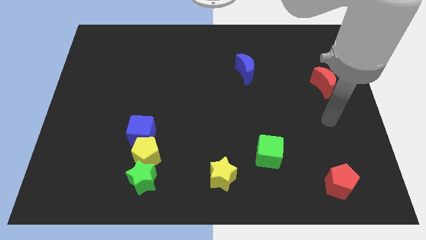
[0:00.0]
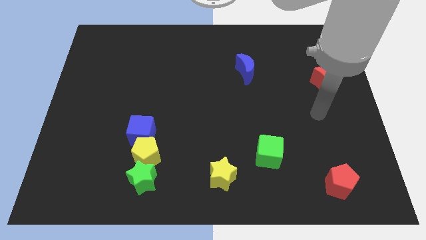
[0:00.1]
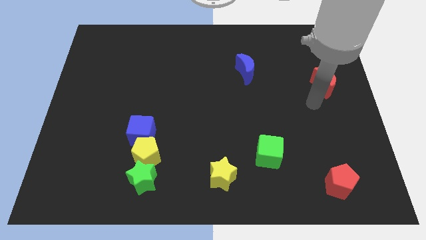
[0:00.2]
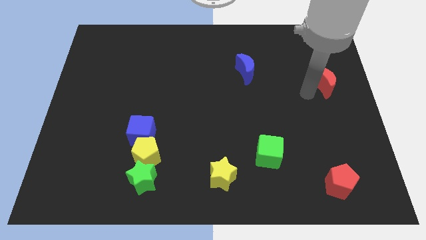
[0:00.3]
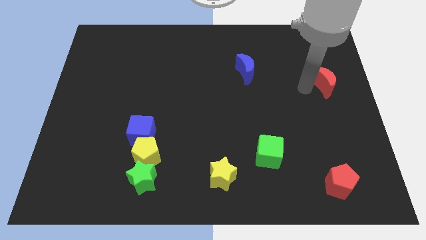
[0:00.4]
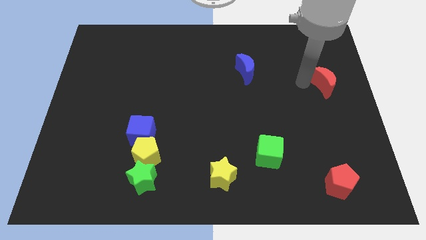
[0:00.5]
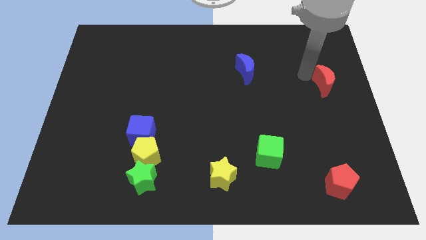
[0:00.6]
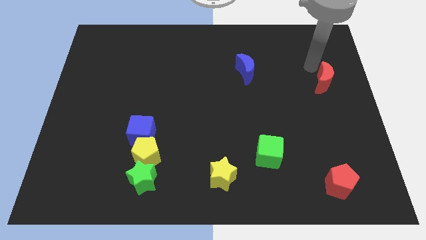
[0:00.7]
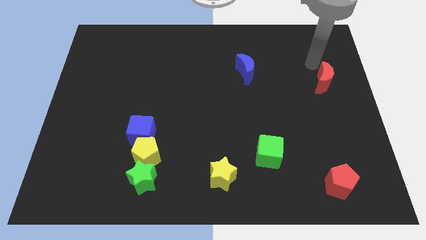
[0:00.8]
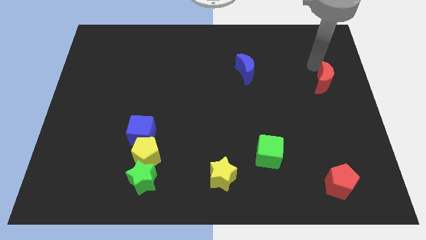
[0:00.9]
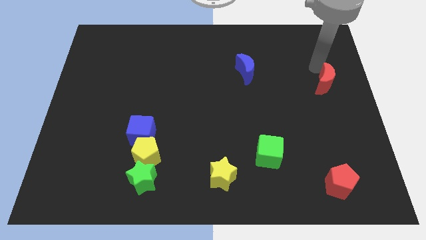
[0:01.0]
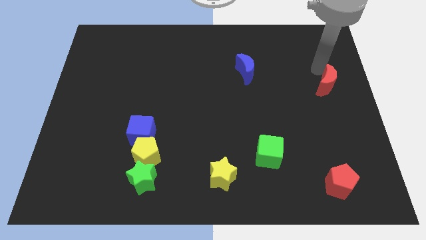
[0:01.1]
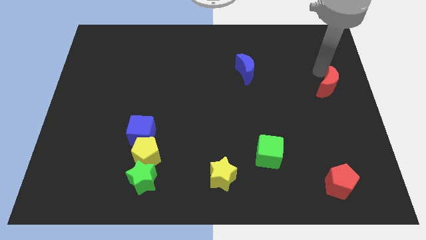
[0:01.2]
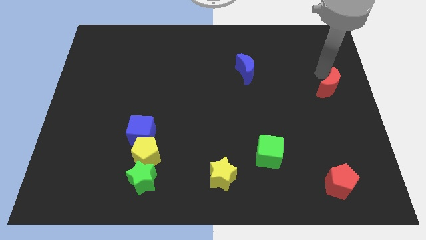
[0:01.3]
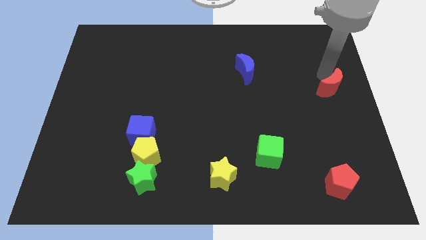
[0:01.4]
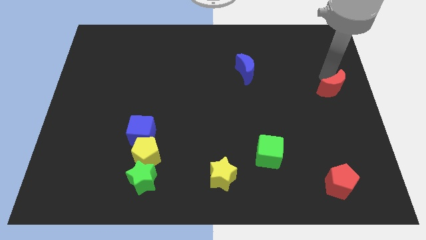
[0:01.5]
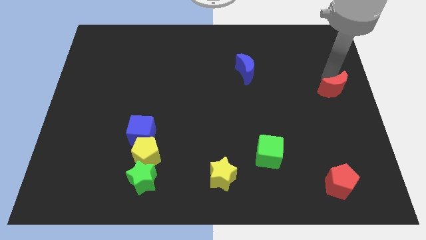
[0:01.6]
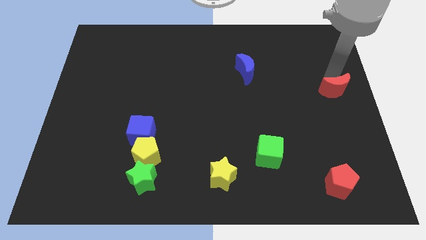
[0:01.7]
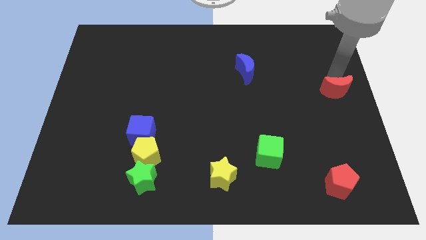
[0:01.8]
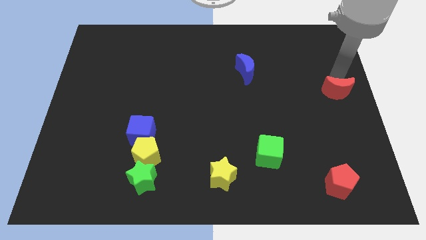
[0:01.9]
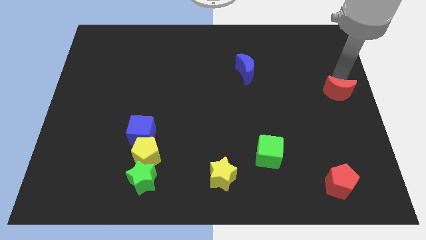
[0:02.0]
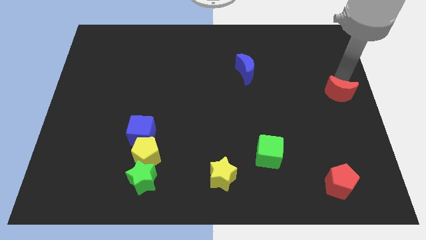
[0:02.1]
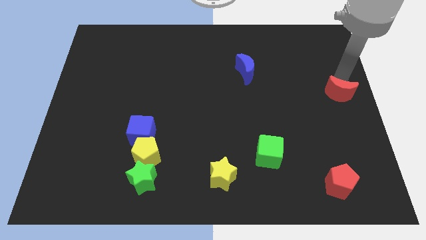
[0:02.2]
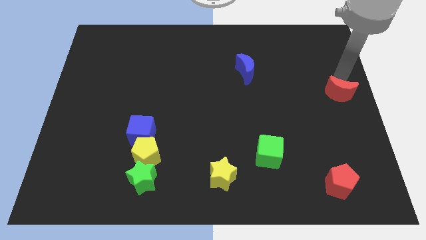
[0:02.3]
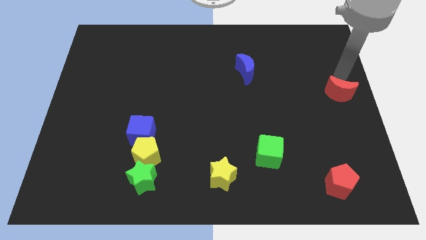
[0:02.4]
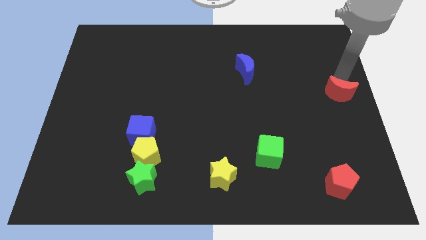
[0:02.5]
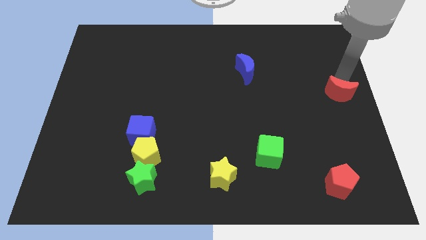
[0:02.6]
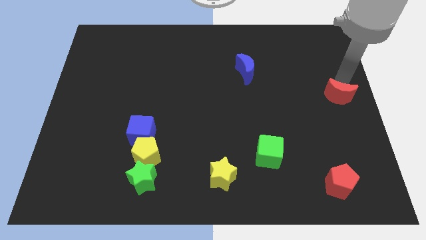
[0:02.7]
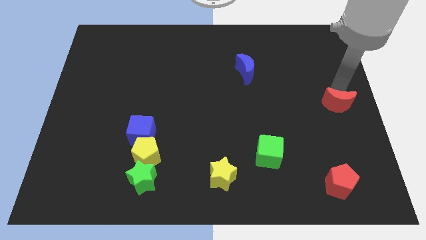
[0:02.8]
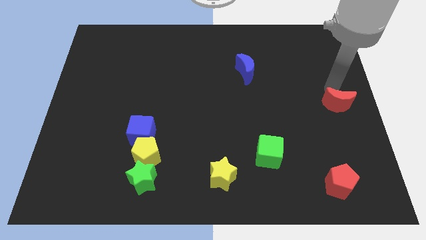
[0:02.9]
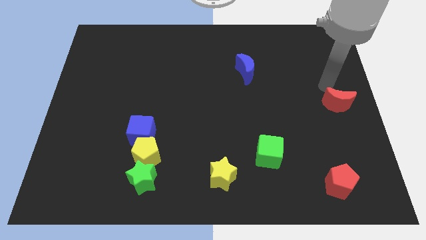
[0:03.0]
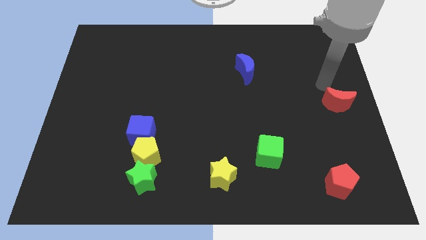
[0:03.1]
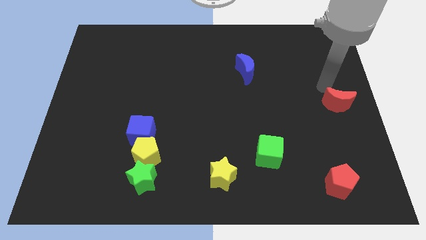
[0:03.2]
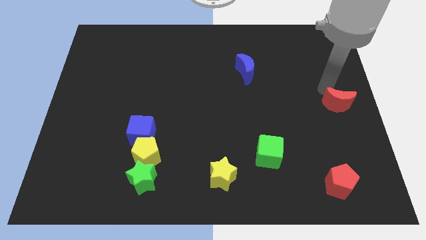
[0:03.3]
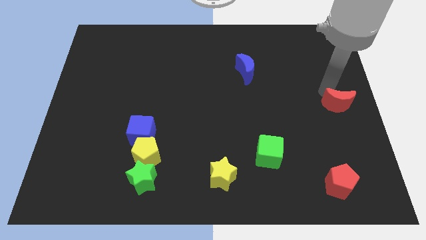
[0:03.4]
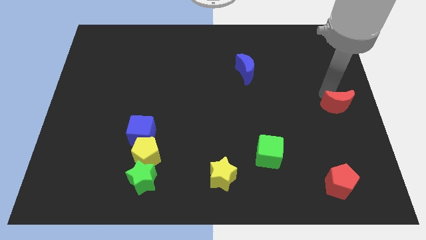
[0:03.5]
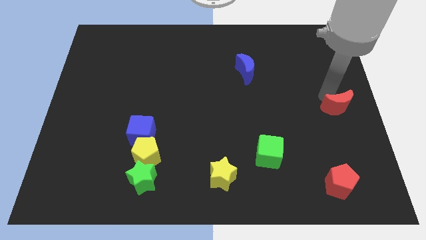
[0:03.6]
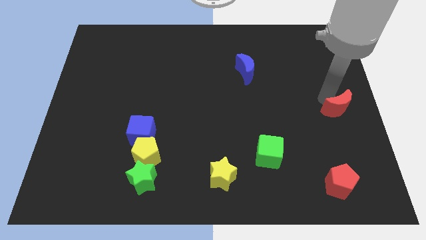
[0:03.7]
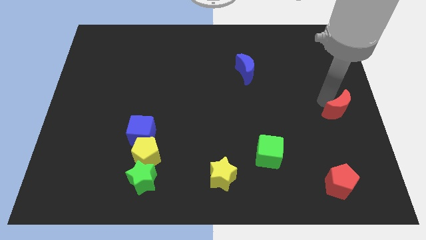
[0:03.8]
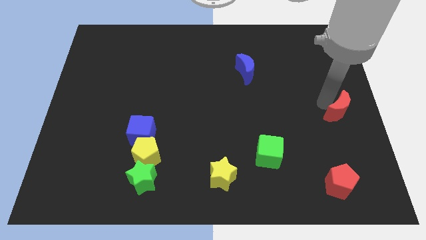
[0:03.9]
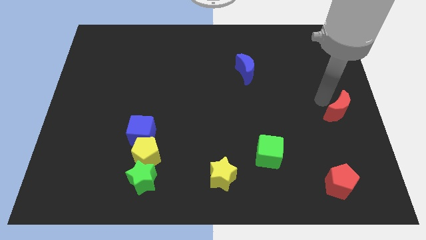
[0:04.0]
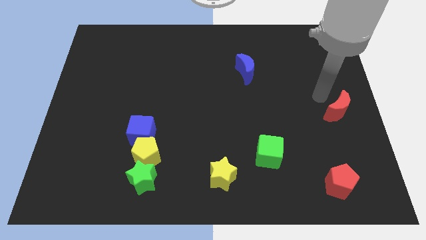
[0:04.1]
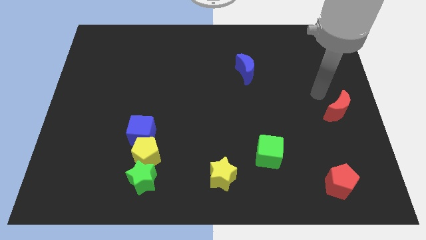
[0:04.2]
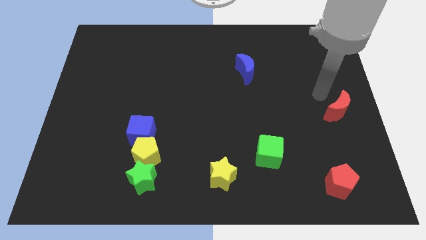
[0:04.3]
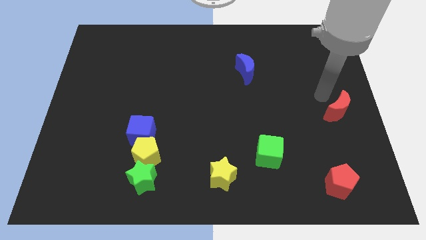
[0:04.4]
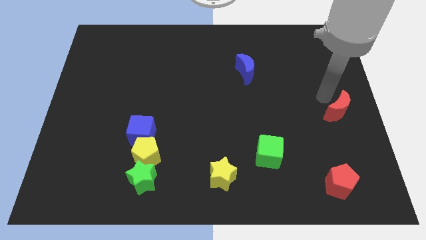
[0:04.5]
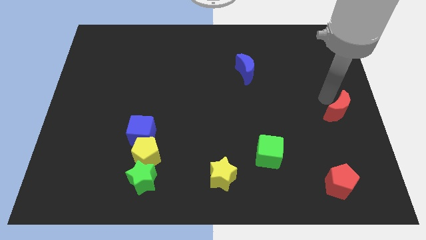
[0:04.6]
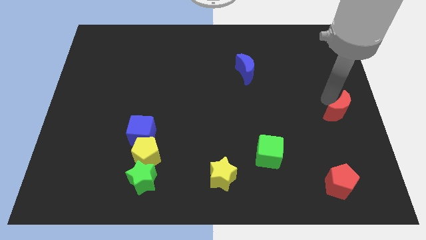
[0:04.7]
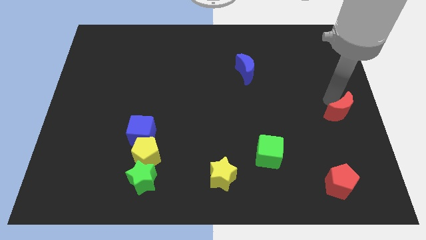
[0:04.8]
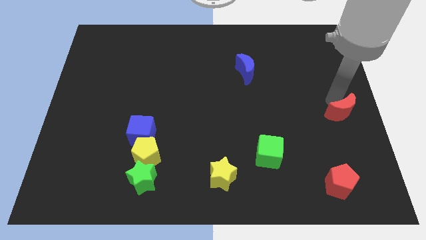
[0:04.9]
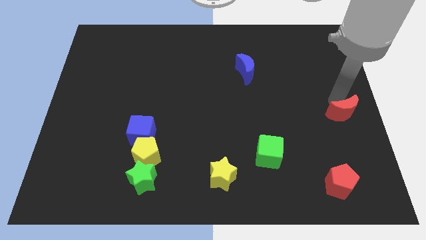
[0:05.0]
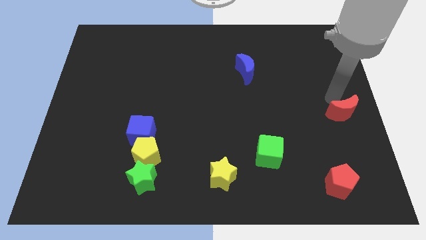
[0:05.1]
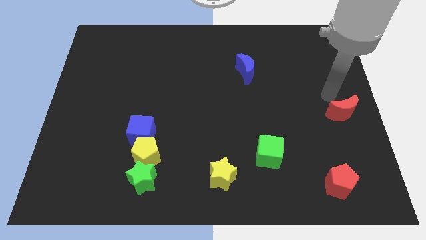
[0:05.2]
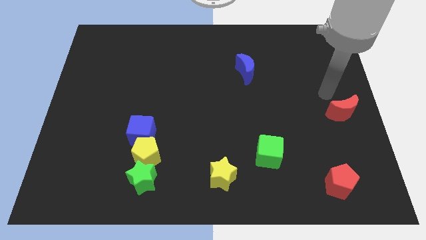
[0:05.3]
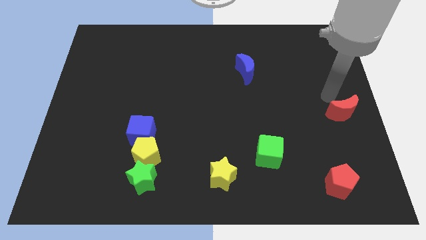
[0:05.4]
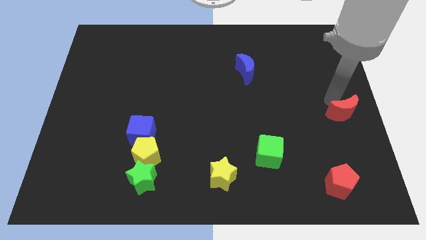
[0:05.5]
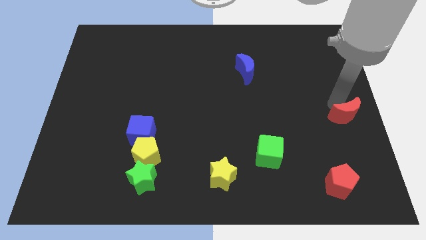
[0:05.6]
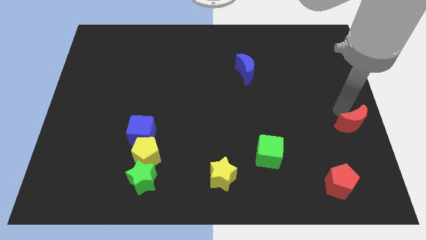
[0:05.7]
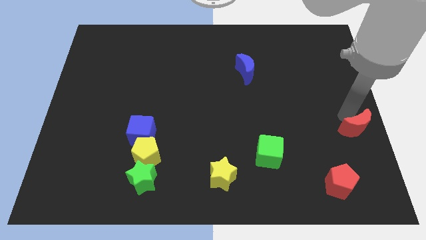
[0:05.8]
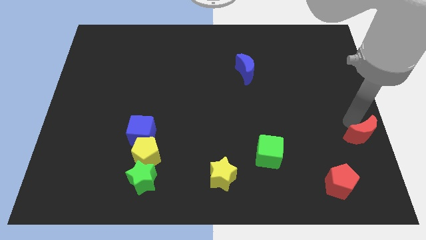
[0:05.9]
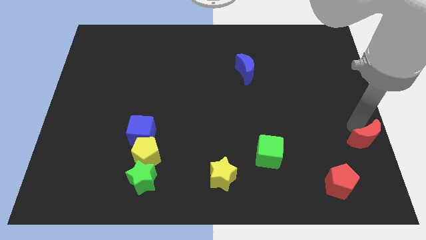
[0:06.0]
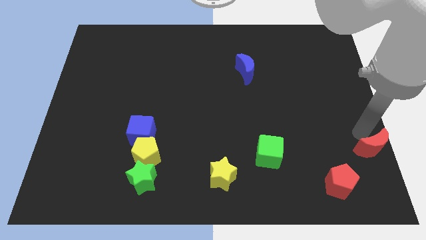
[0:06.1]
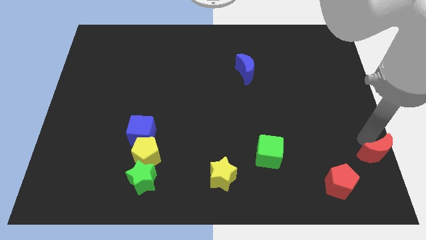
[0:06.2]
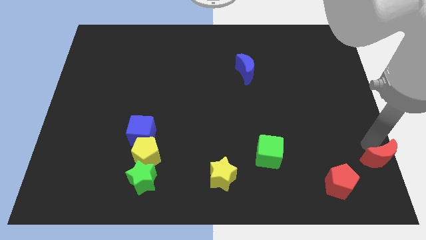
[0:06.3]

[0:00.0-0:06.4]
push the red moon to the bottom right

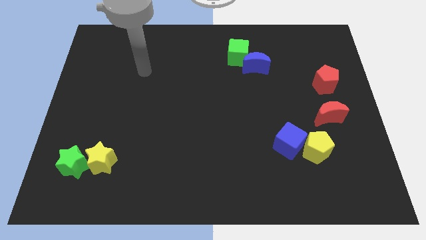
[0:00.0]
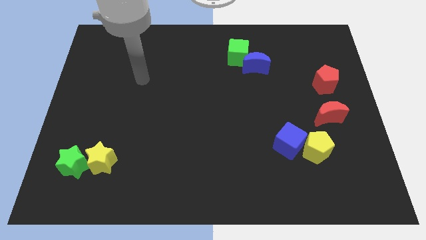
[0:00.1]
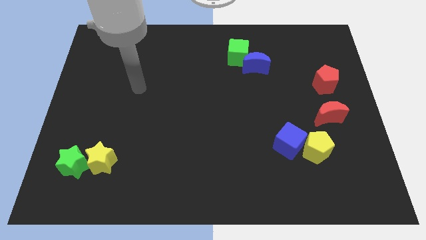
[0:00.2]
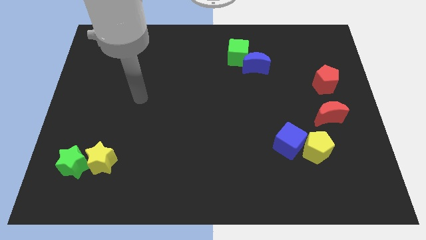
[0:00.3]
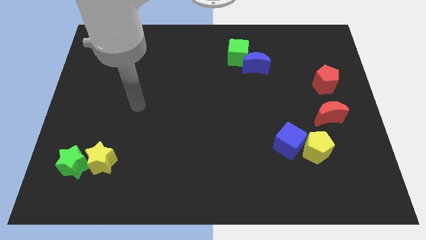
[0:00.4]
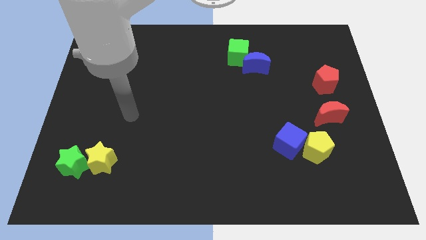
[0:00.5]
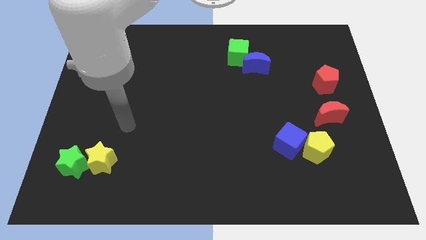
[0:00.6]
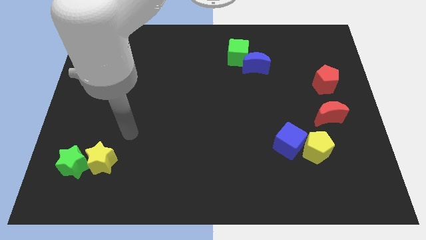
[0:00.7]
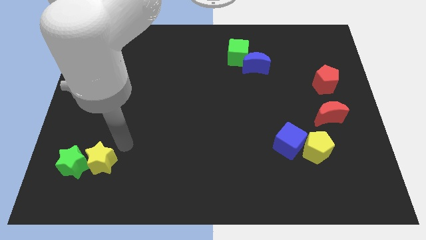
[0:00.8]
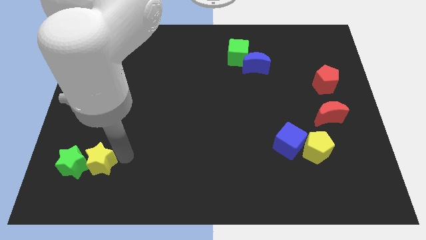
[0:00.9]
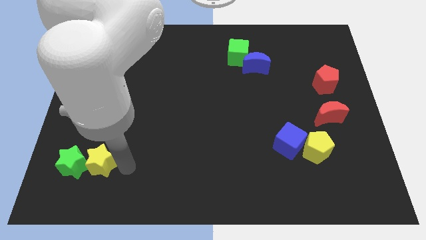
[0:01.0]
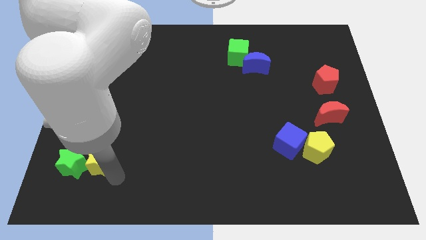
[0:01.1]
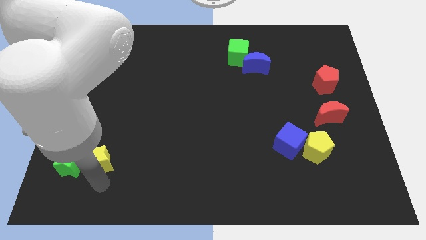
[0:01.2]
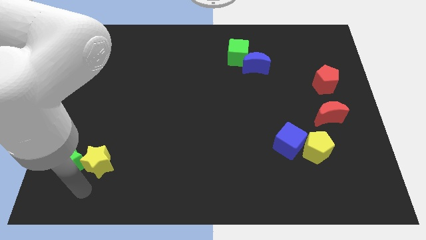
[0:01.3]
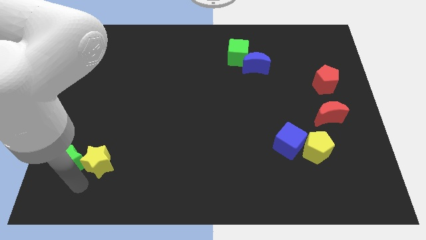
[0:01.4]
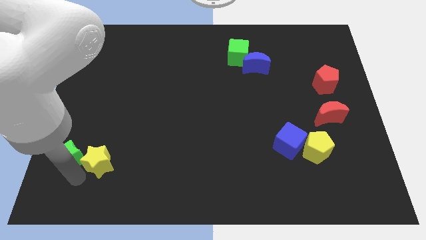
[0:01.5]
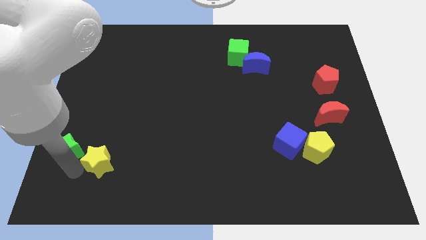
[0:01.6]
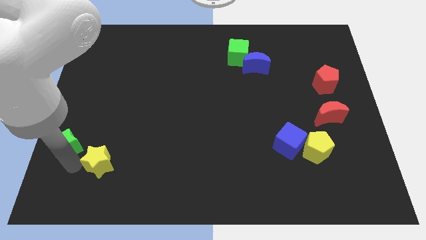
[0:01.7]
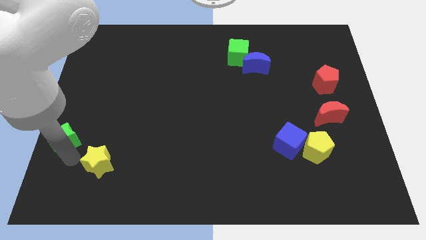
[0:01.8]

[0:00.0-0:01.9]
slide the green star to the center left
